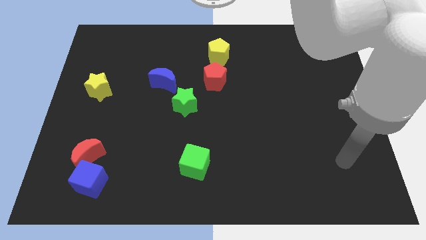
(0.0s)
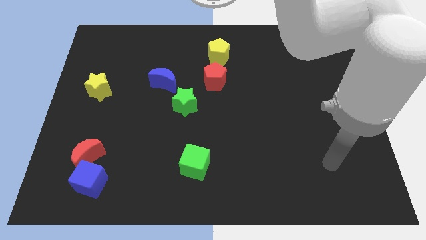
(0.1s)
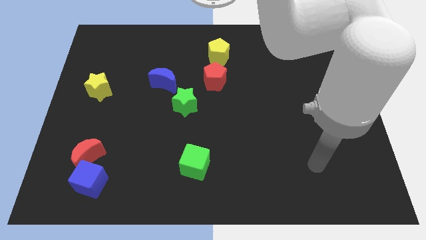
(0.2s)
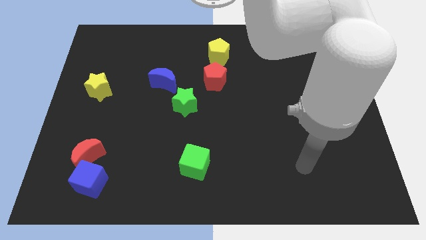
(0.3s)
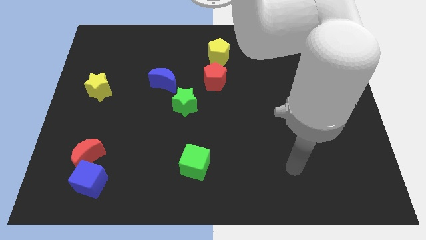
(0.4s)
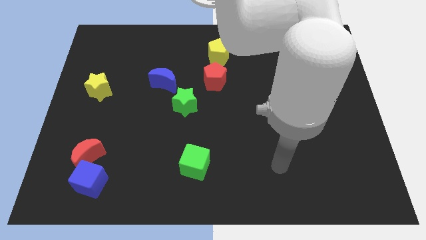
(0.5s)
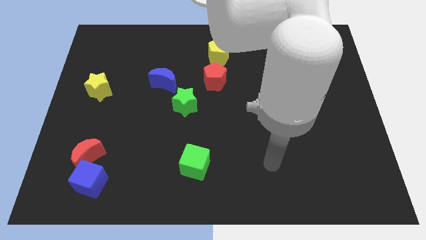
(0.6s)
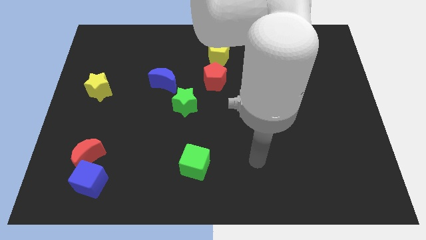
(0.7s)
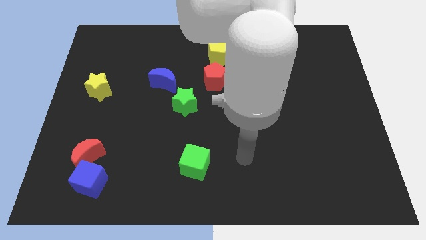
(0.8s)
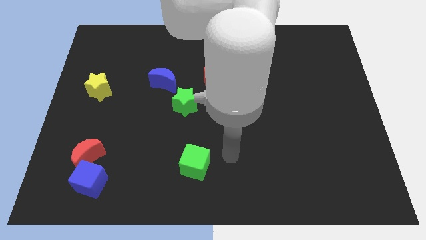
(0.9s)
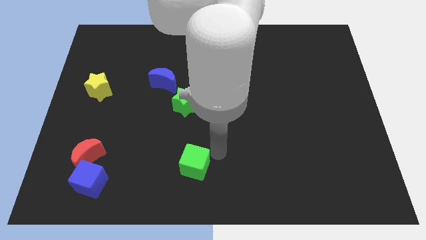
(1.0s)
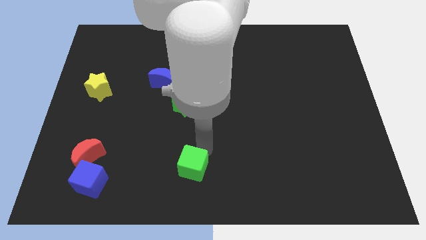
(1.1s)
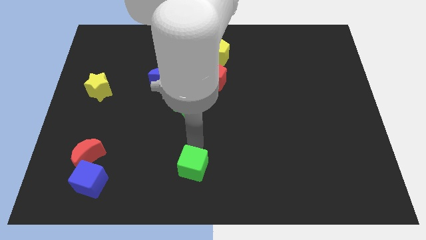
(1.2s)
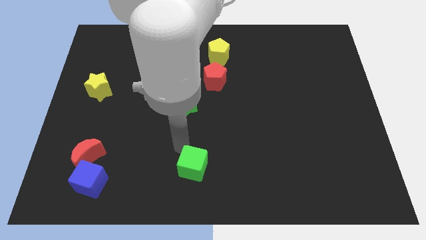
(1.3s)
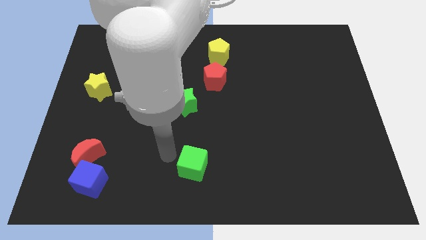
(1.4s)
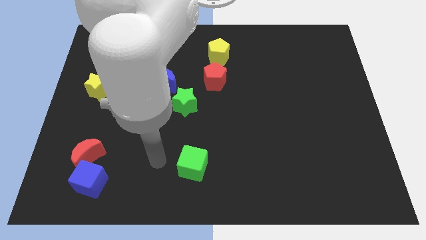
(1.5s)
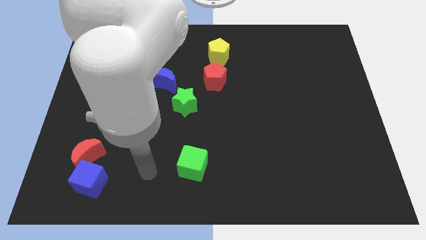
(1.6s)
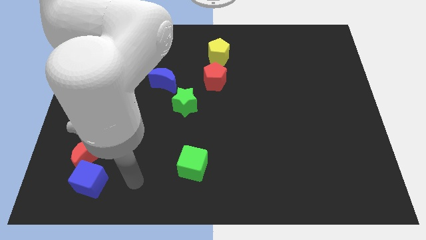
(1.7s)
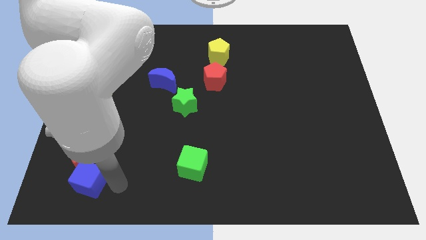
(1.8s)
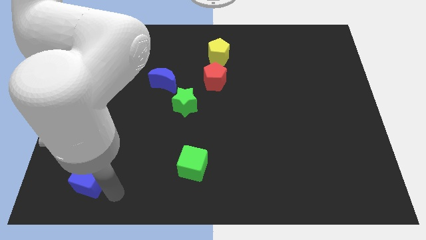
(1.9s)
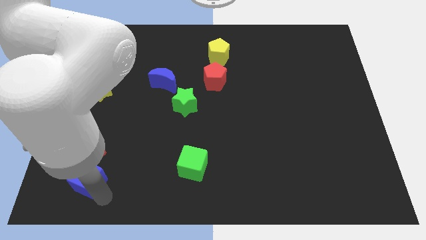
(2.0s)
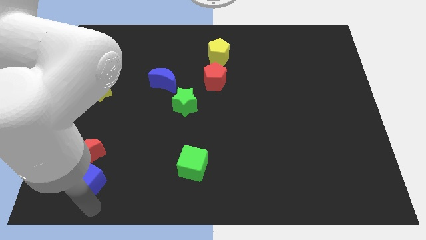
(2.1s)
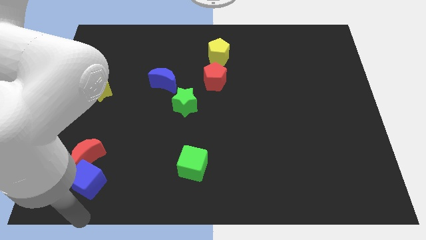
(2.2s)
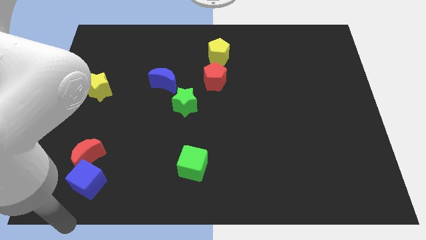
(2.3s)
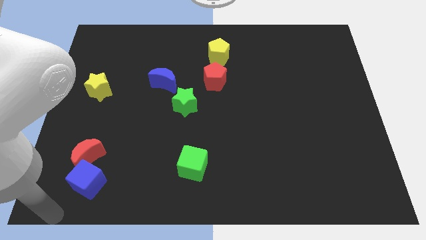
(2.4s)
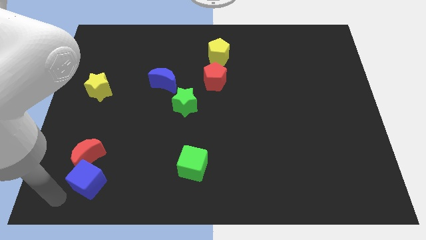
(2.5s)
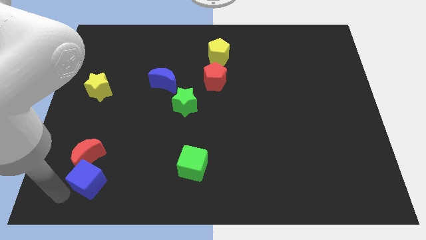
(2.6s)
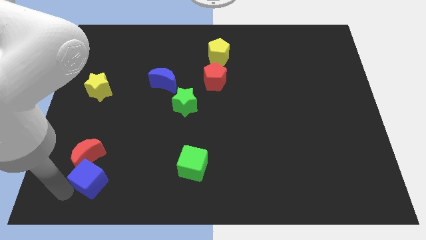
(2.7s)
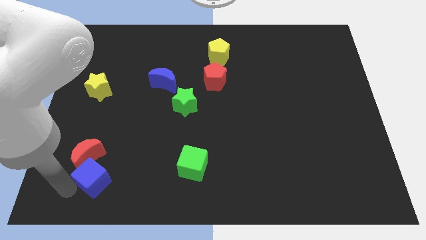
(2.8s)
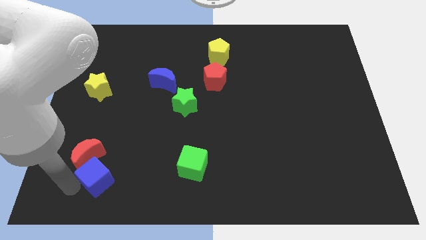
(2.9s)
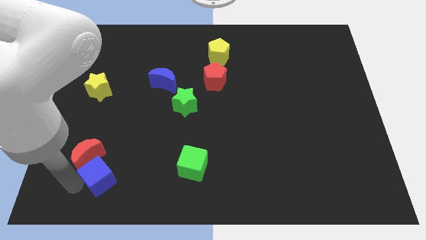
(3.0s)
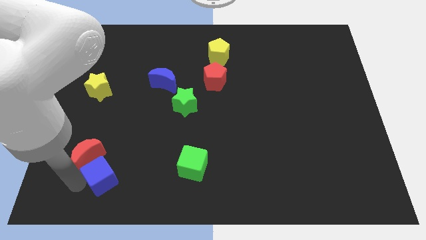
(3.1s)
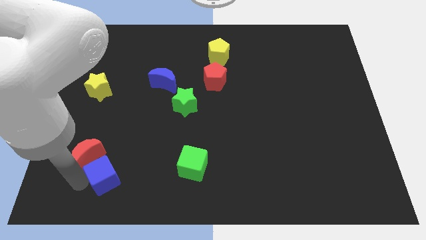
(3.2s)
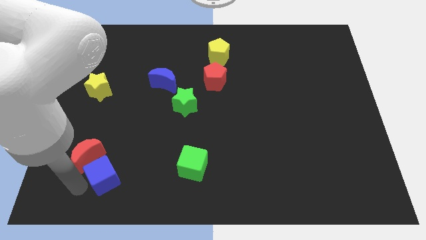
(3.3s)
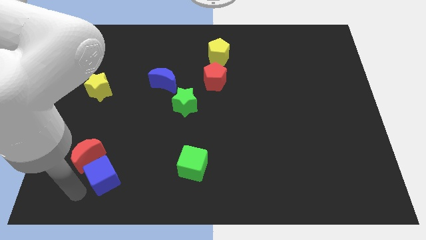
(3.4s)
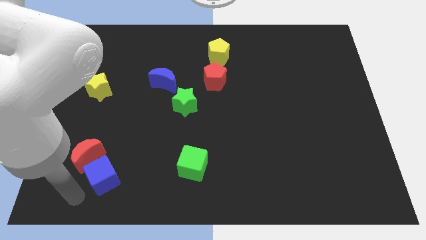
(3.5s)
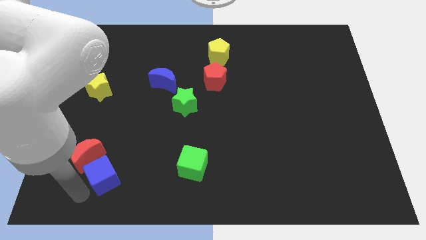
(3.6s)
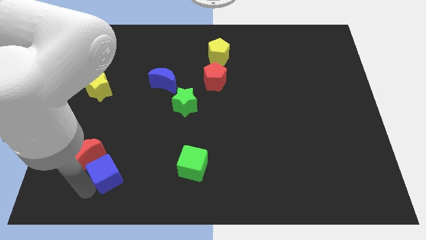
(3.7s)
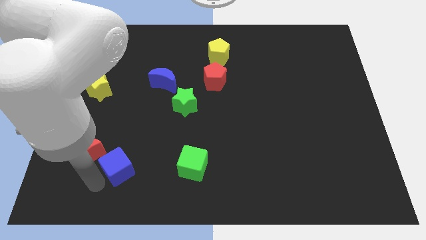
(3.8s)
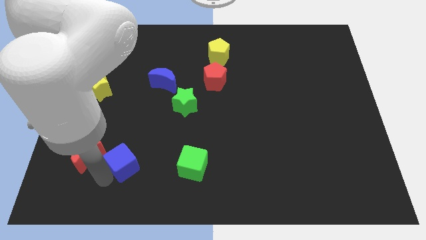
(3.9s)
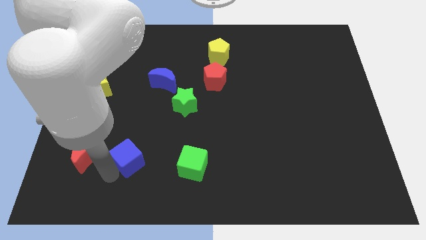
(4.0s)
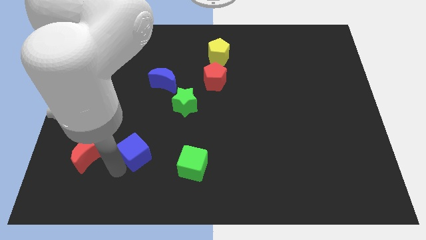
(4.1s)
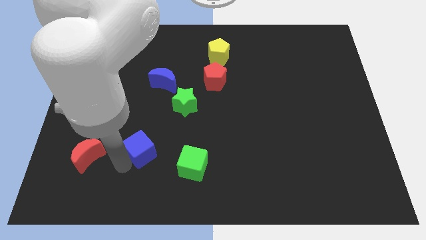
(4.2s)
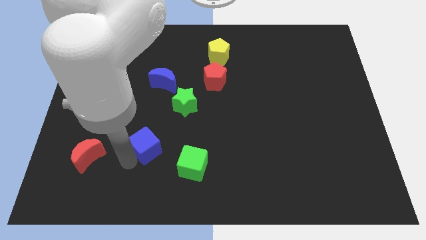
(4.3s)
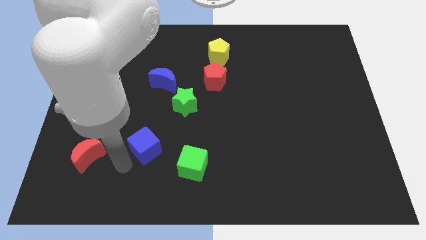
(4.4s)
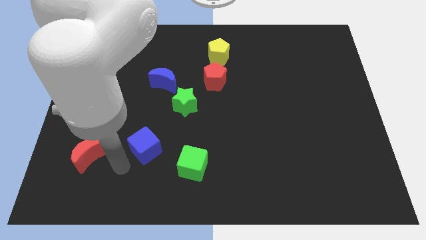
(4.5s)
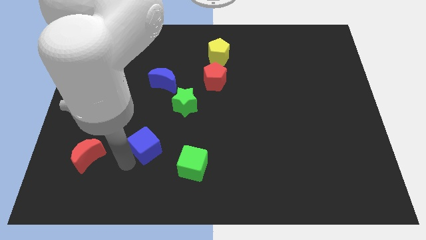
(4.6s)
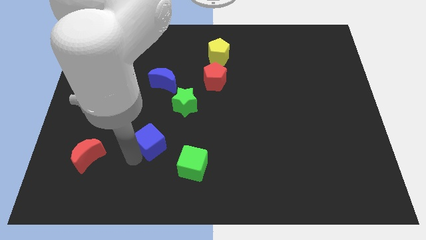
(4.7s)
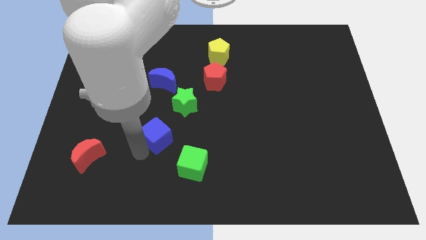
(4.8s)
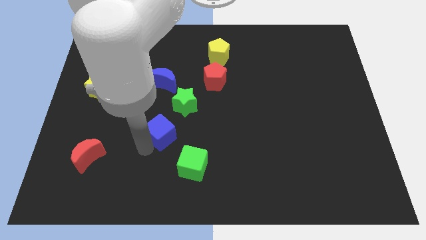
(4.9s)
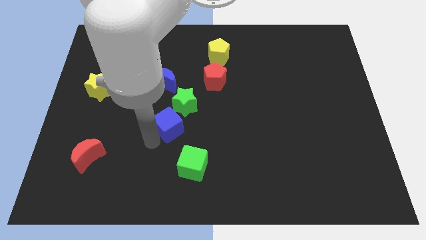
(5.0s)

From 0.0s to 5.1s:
push the blue cube up and right diagonally

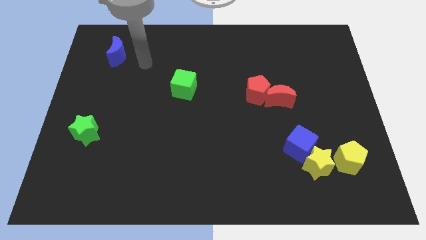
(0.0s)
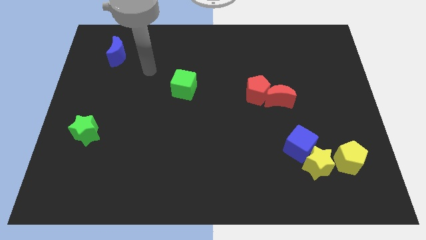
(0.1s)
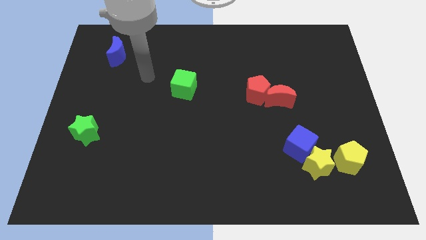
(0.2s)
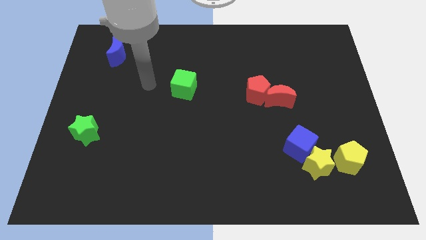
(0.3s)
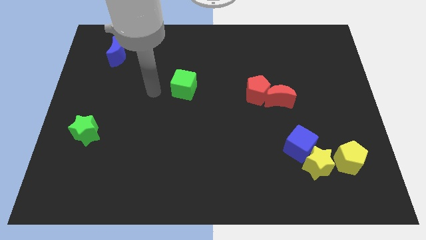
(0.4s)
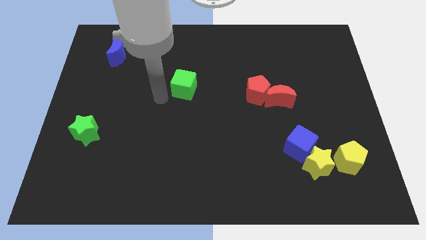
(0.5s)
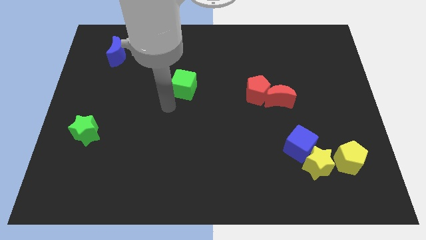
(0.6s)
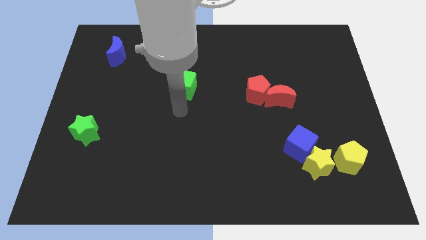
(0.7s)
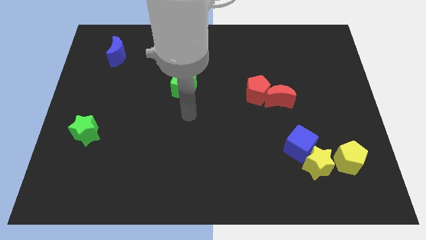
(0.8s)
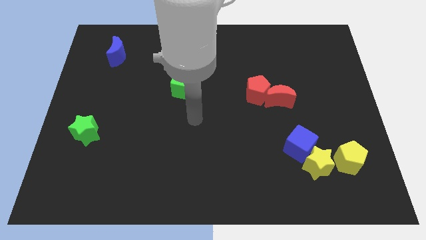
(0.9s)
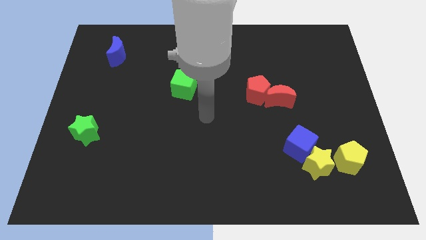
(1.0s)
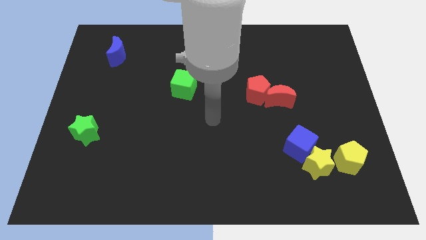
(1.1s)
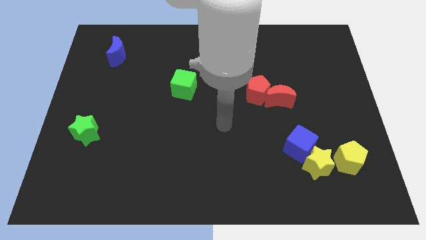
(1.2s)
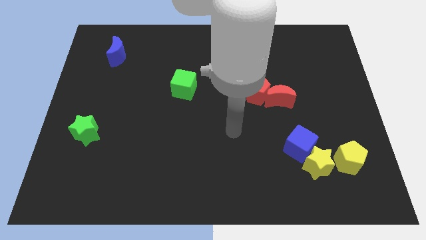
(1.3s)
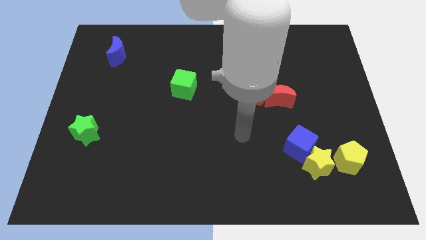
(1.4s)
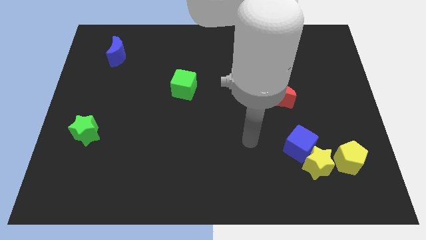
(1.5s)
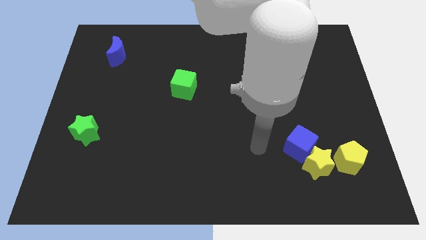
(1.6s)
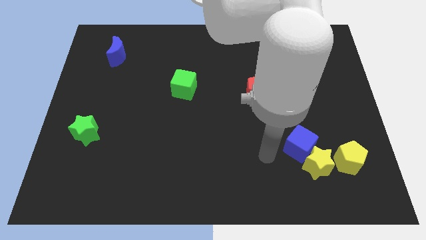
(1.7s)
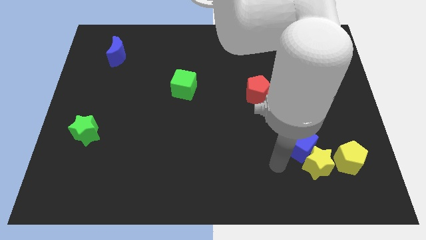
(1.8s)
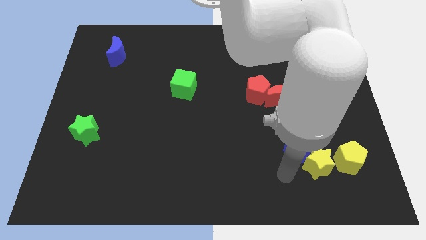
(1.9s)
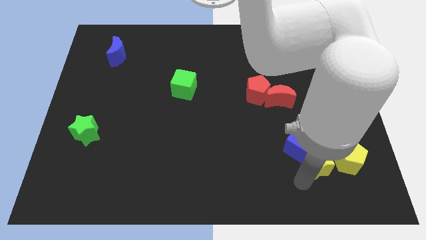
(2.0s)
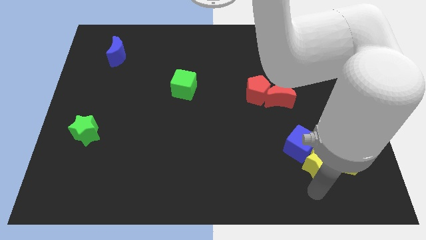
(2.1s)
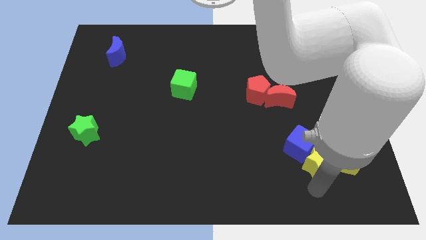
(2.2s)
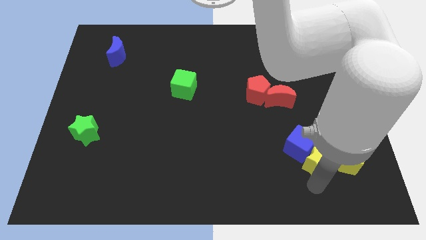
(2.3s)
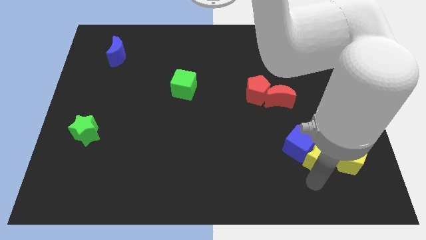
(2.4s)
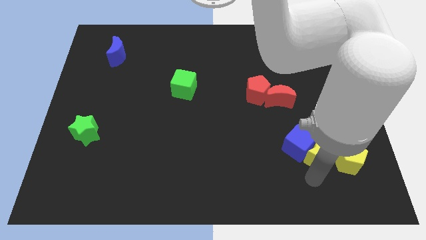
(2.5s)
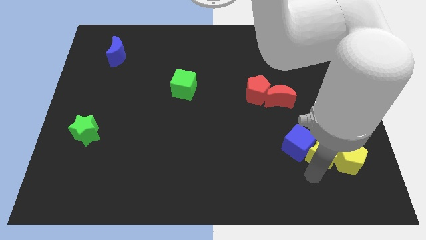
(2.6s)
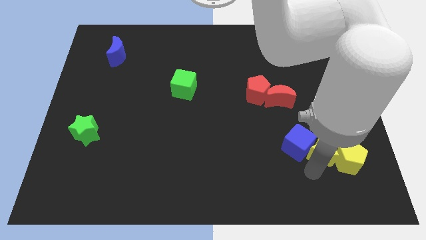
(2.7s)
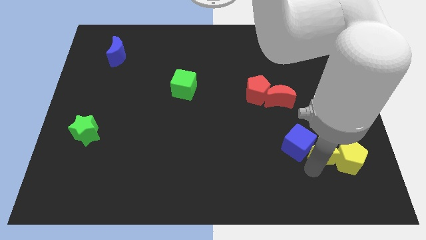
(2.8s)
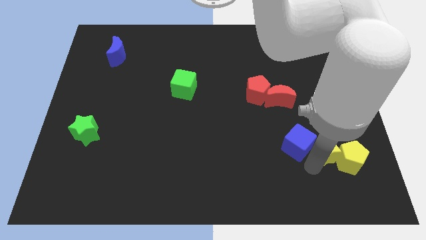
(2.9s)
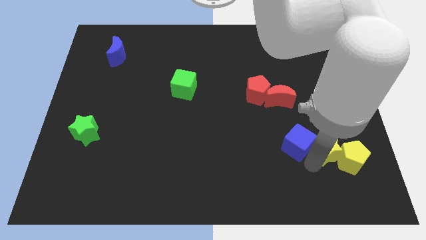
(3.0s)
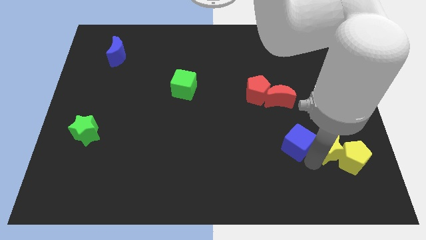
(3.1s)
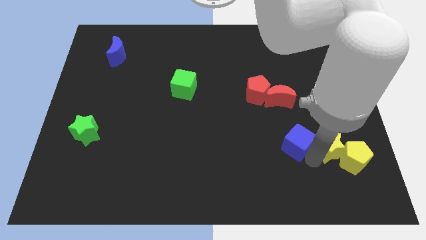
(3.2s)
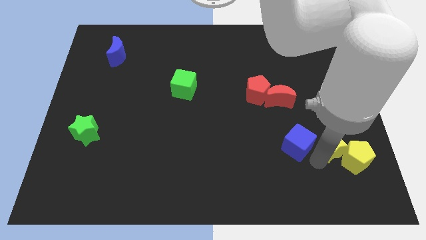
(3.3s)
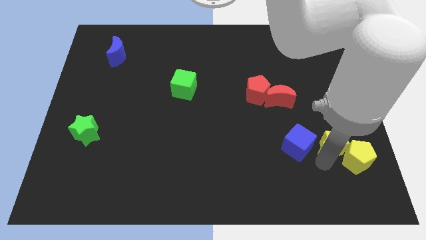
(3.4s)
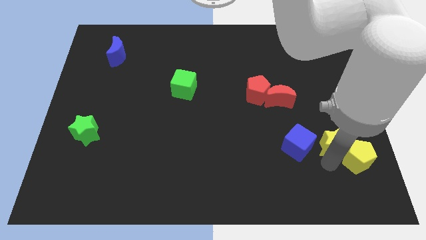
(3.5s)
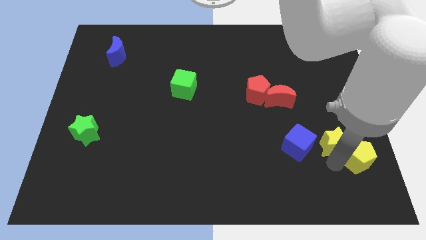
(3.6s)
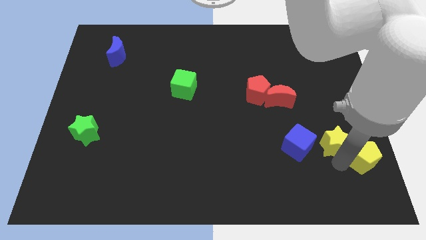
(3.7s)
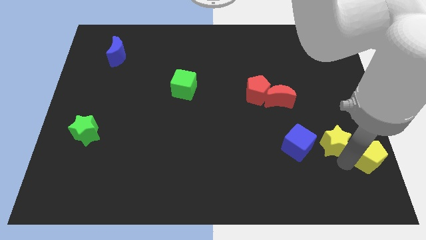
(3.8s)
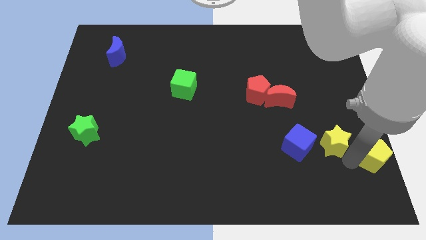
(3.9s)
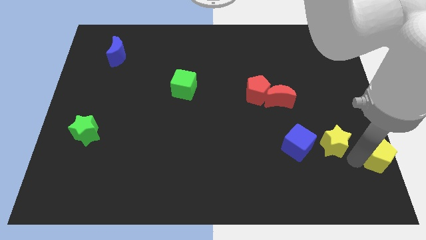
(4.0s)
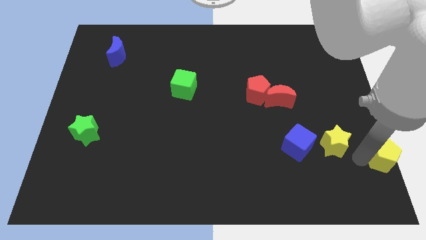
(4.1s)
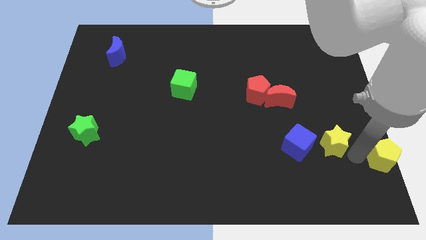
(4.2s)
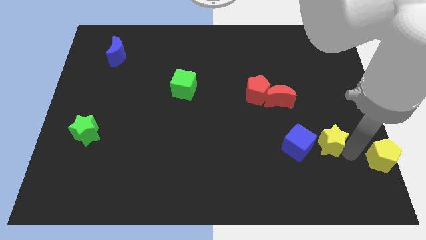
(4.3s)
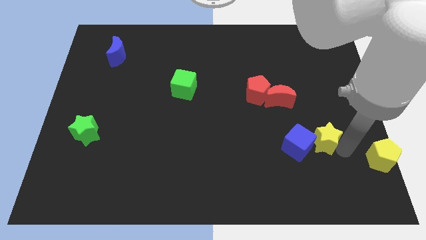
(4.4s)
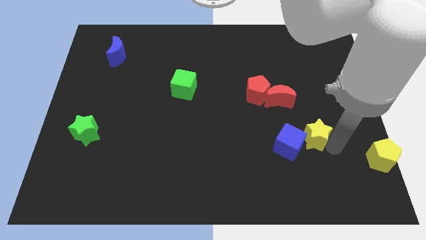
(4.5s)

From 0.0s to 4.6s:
push the yellow star up a little bit
